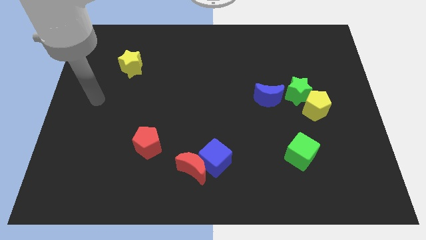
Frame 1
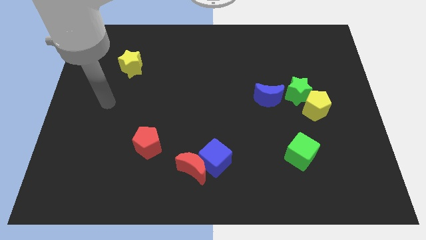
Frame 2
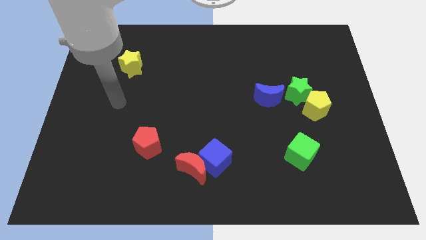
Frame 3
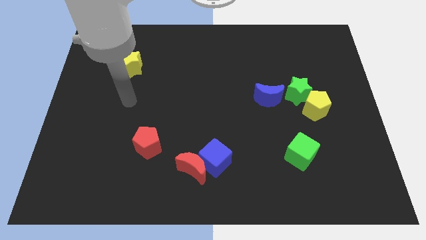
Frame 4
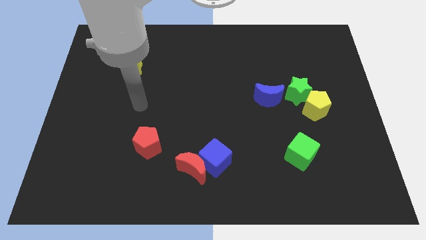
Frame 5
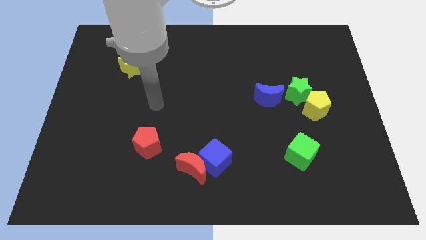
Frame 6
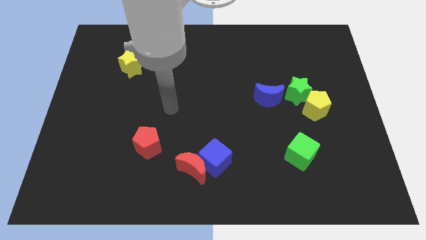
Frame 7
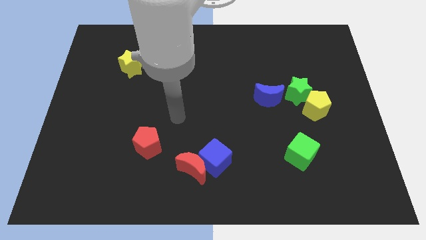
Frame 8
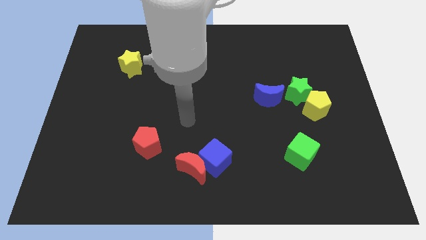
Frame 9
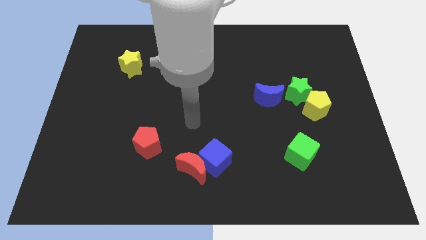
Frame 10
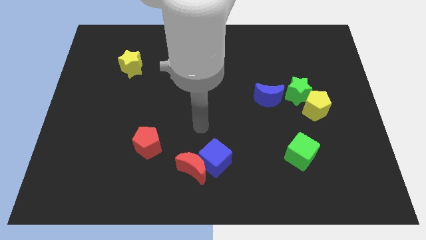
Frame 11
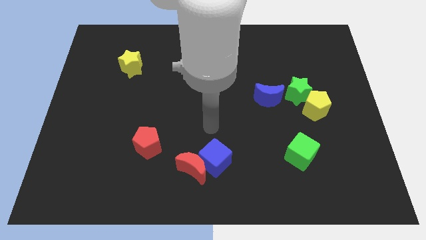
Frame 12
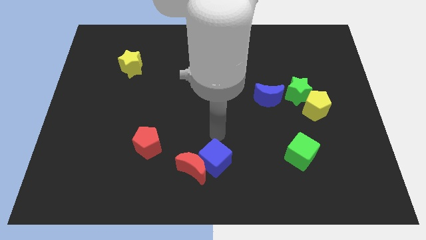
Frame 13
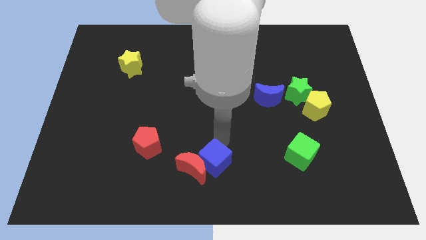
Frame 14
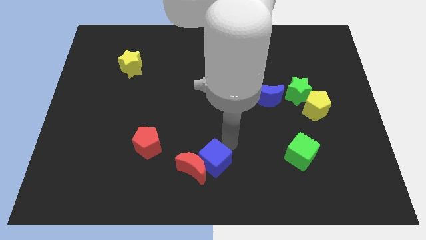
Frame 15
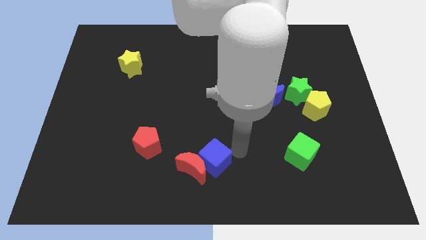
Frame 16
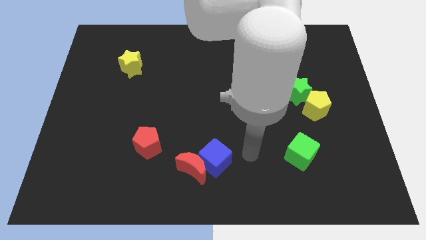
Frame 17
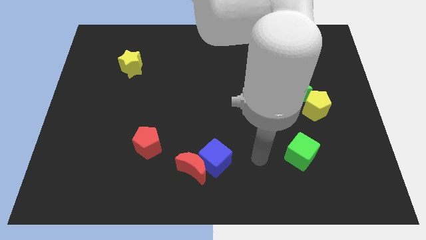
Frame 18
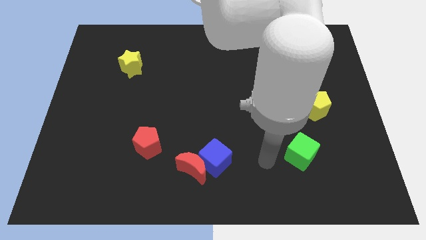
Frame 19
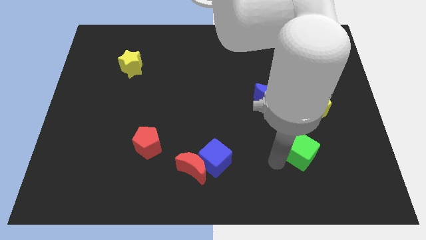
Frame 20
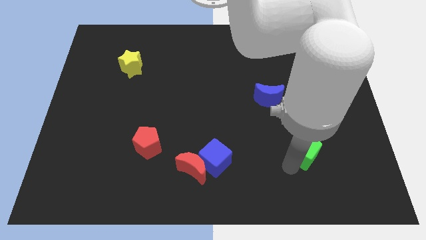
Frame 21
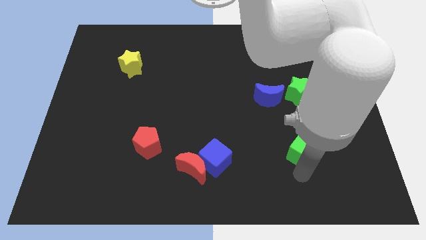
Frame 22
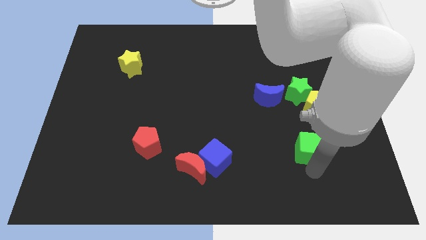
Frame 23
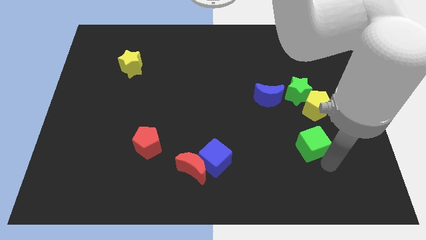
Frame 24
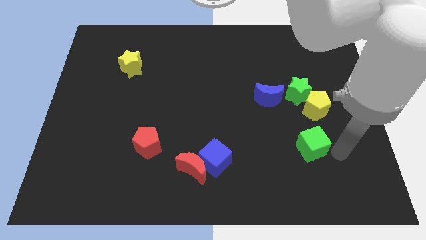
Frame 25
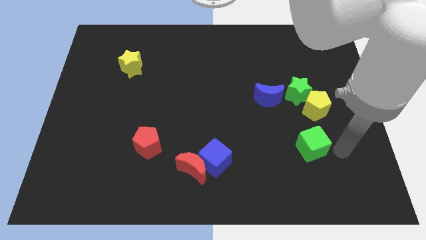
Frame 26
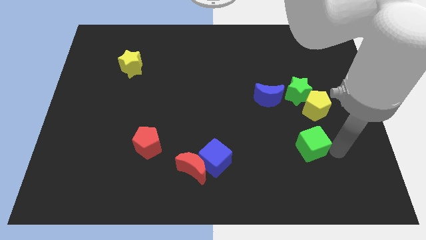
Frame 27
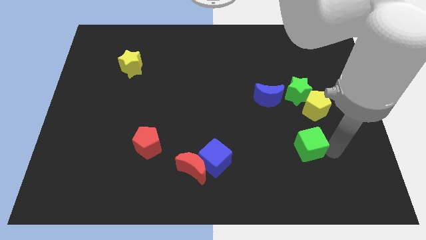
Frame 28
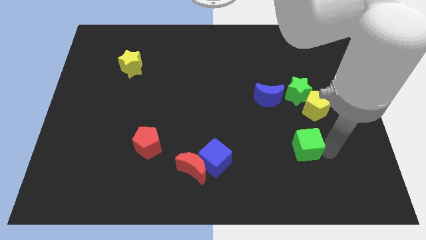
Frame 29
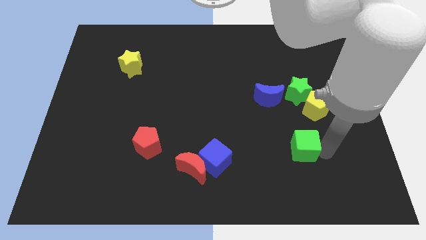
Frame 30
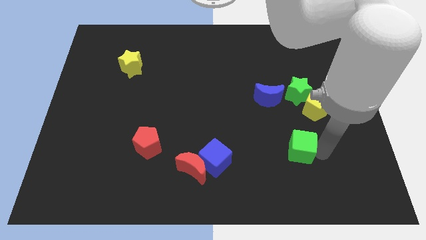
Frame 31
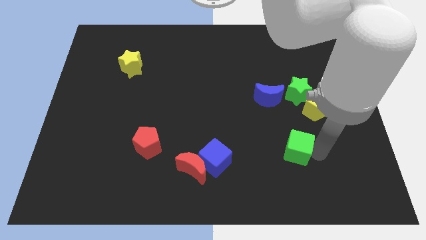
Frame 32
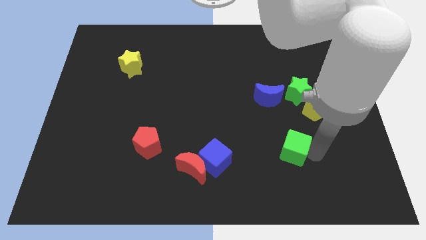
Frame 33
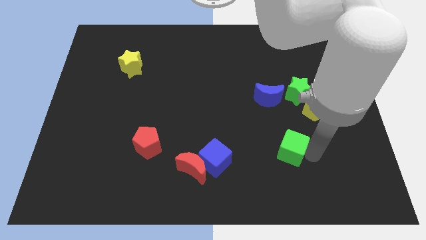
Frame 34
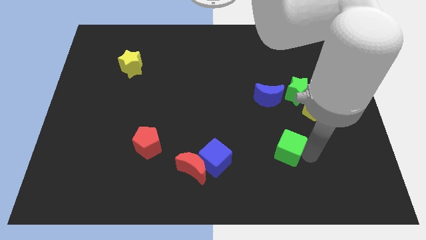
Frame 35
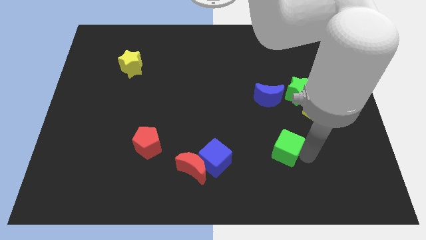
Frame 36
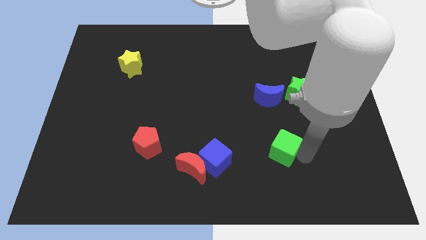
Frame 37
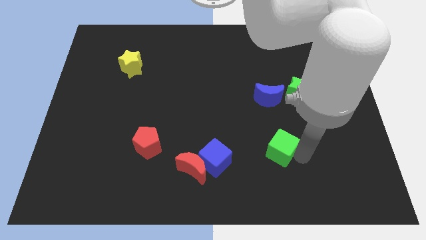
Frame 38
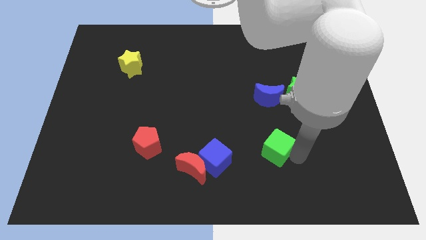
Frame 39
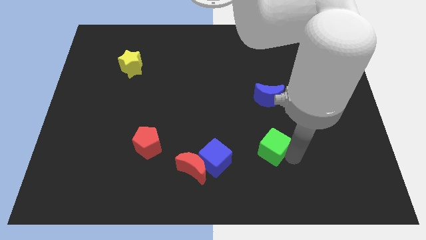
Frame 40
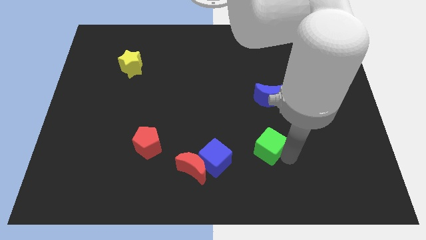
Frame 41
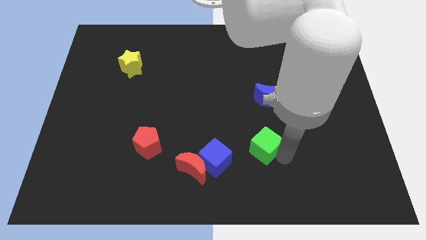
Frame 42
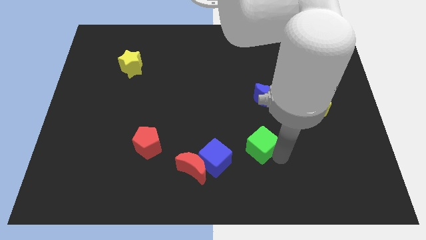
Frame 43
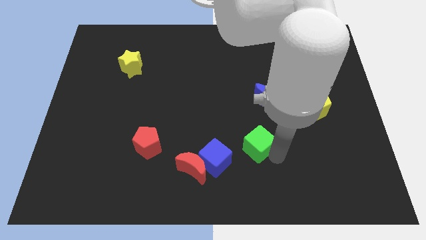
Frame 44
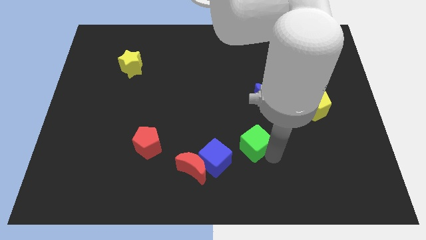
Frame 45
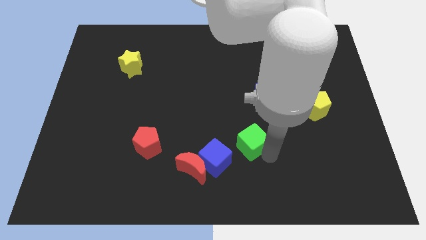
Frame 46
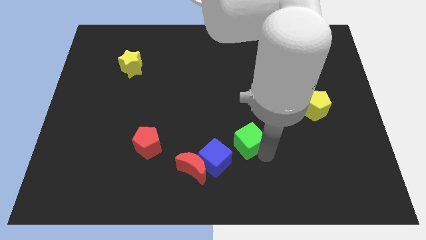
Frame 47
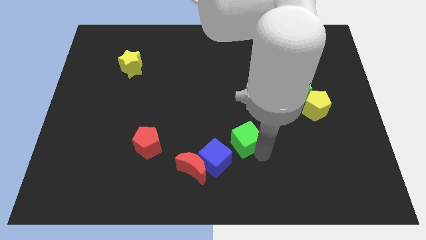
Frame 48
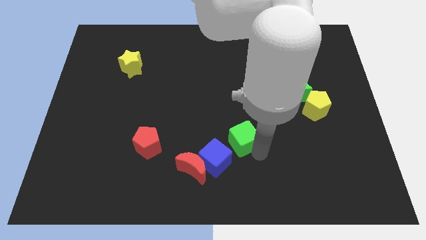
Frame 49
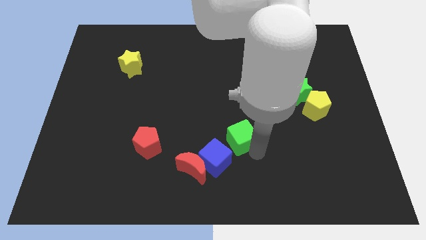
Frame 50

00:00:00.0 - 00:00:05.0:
push the green cube to the center of the board

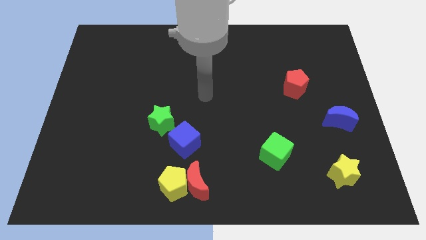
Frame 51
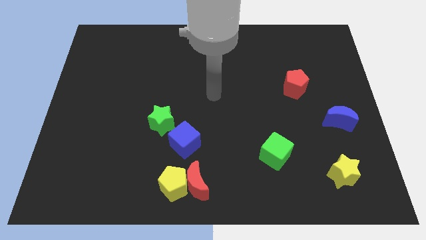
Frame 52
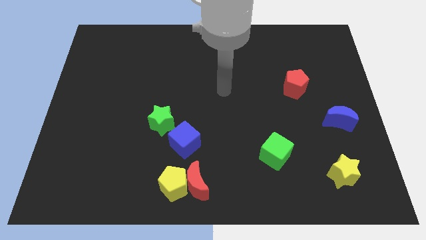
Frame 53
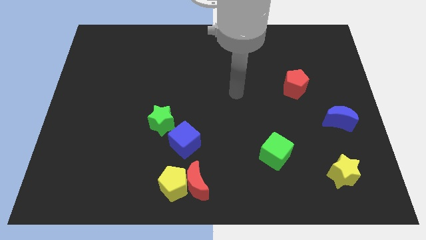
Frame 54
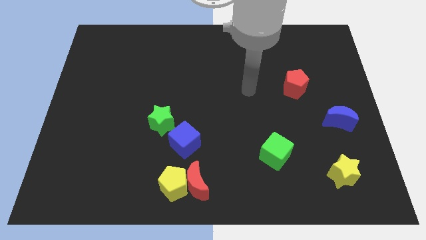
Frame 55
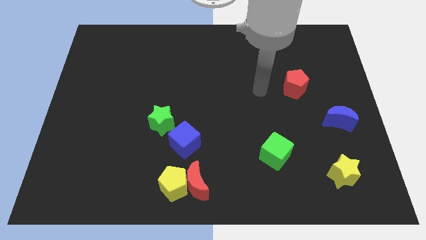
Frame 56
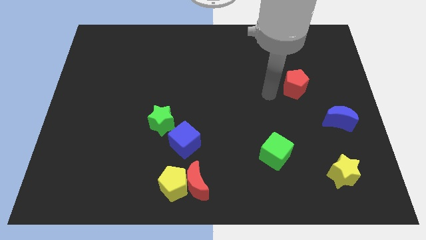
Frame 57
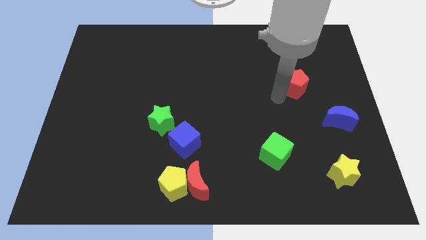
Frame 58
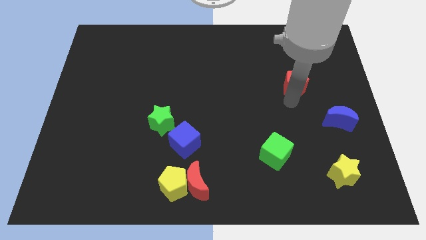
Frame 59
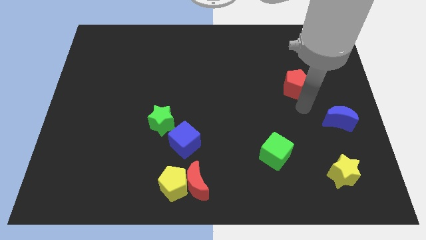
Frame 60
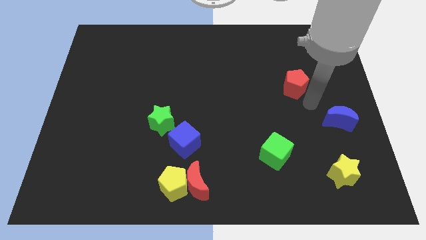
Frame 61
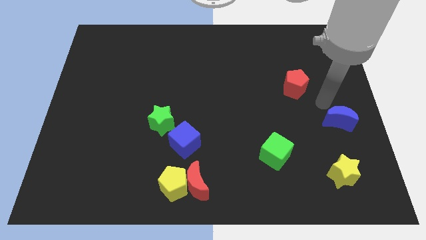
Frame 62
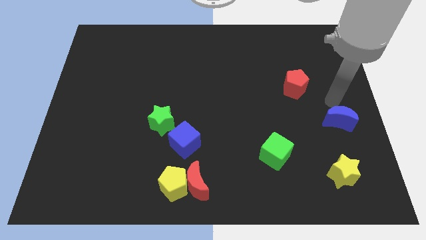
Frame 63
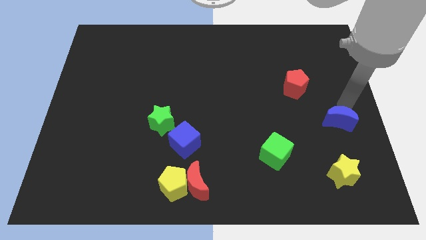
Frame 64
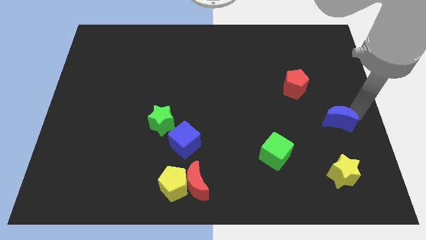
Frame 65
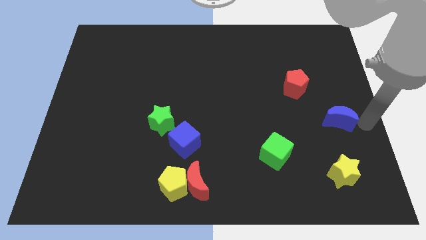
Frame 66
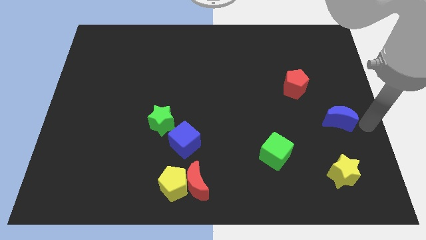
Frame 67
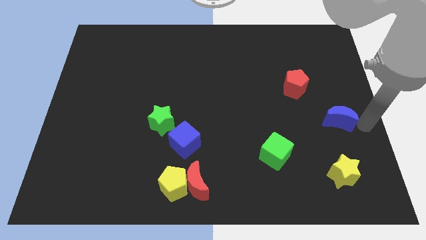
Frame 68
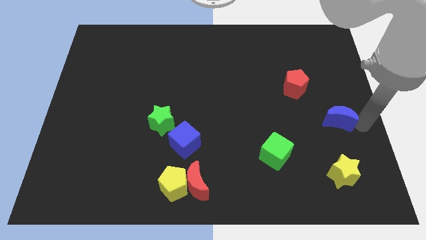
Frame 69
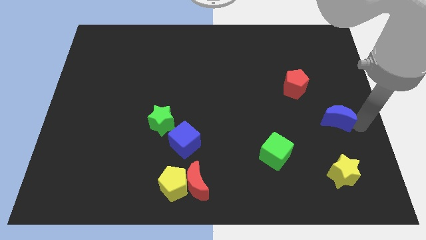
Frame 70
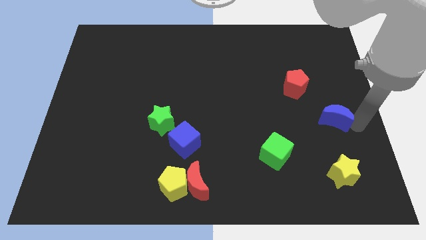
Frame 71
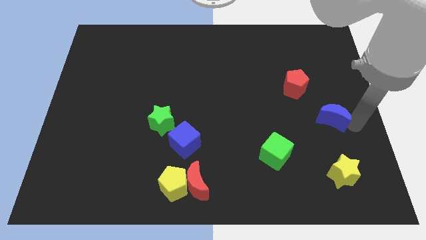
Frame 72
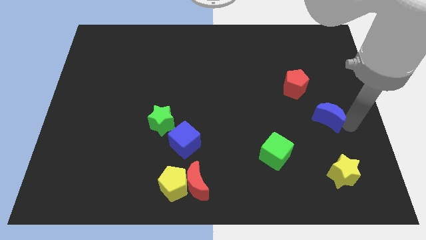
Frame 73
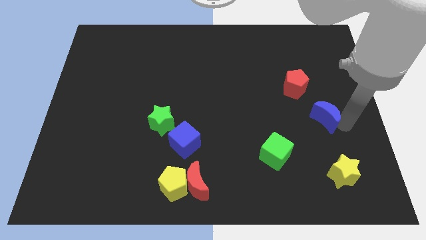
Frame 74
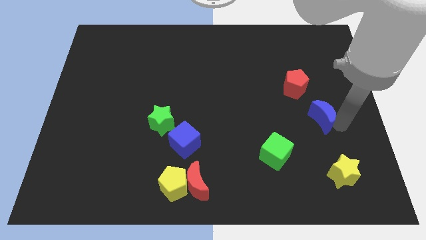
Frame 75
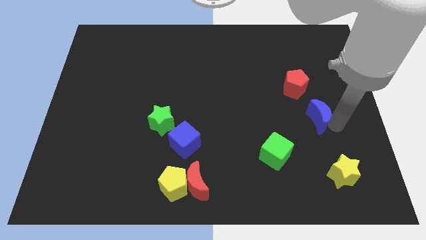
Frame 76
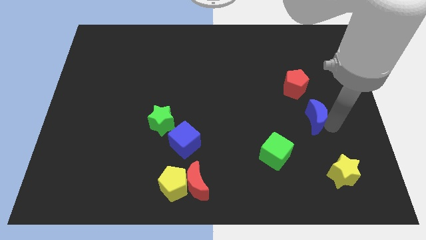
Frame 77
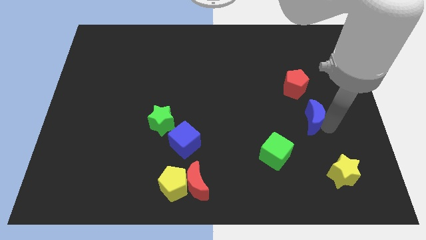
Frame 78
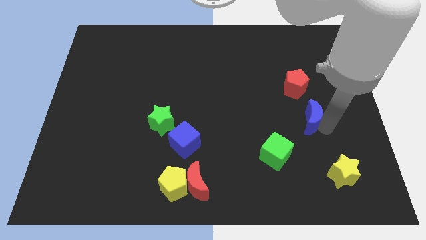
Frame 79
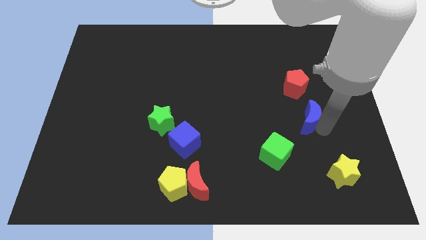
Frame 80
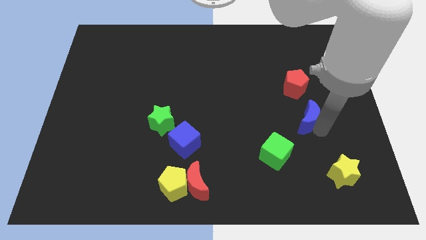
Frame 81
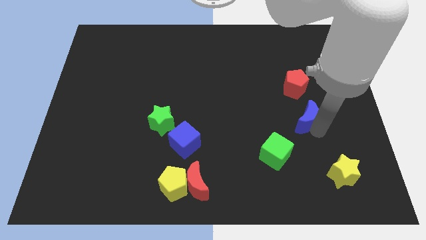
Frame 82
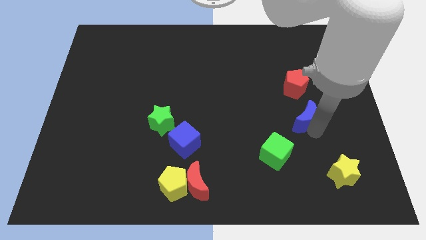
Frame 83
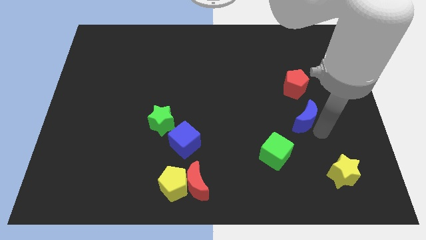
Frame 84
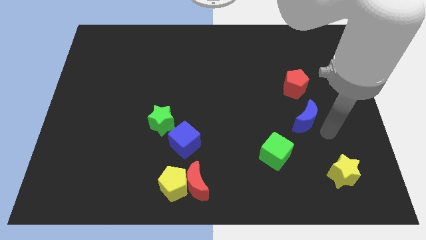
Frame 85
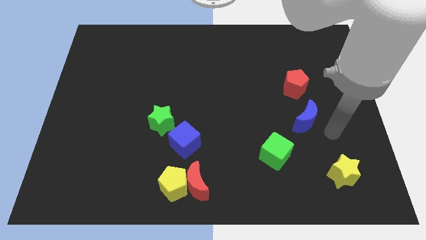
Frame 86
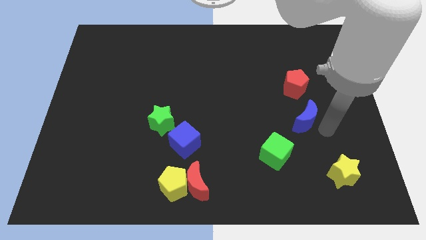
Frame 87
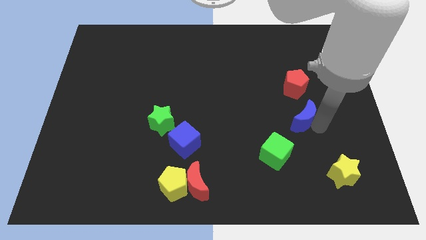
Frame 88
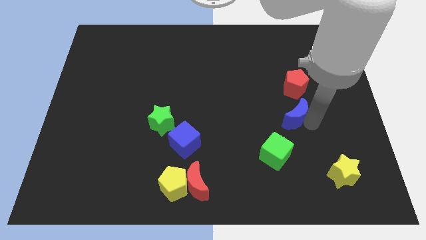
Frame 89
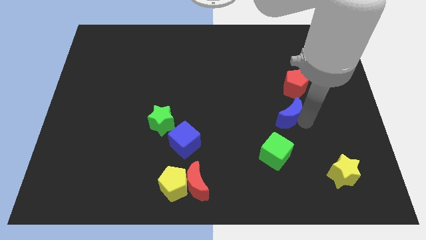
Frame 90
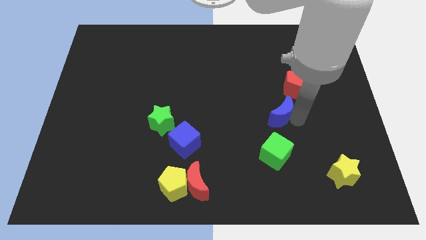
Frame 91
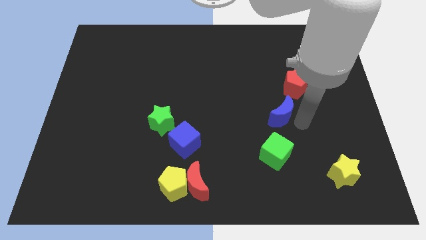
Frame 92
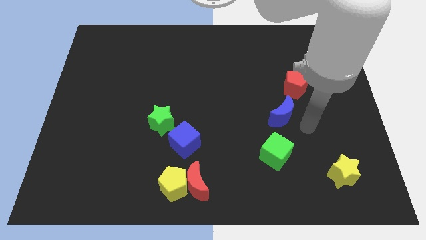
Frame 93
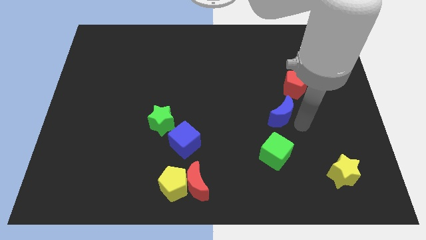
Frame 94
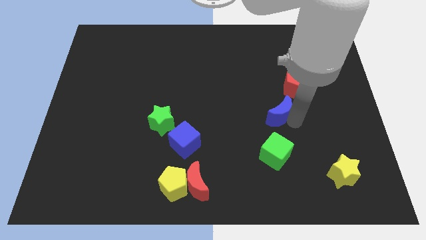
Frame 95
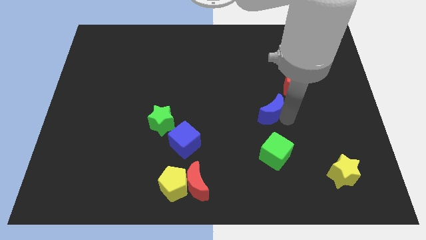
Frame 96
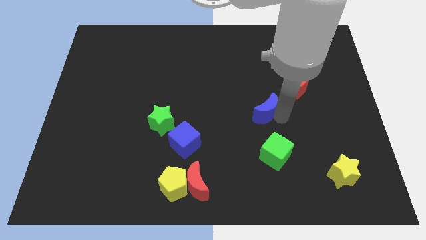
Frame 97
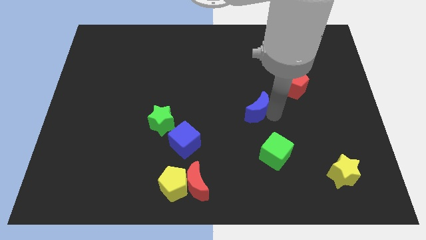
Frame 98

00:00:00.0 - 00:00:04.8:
move the blue moon to the middle
